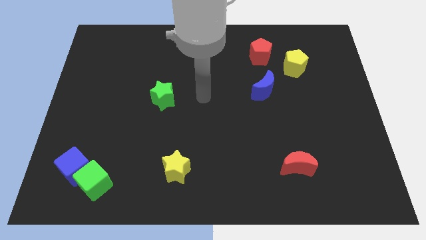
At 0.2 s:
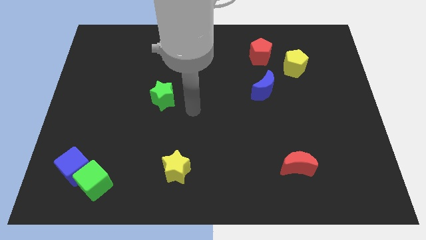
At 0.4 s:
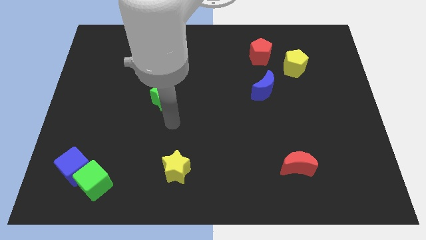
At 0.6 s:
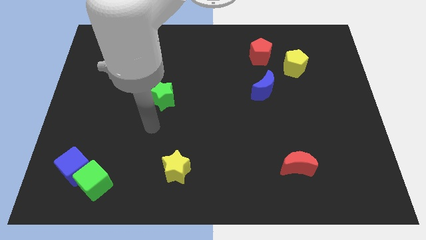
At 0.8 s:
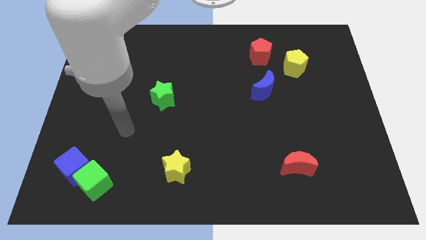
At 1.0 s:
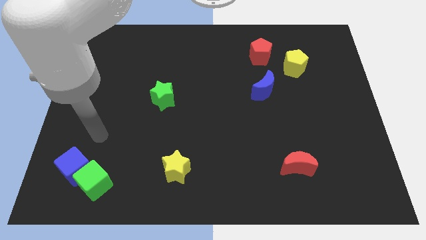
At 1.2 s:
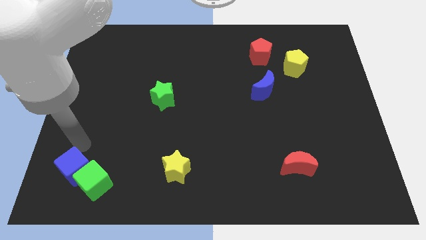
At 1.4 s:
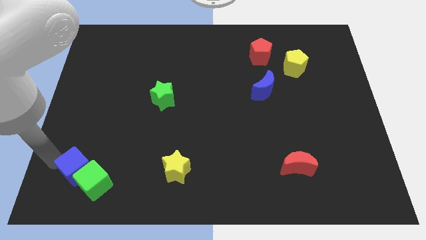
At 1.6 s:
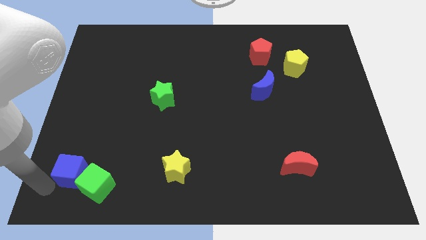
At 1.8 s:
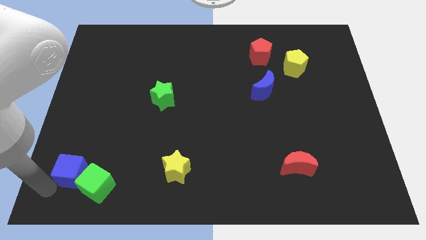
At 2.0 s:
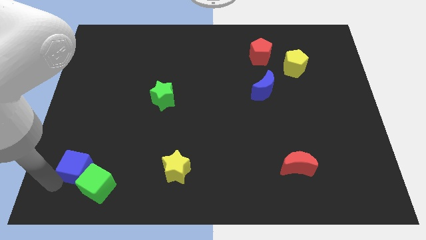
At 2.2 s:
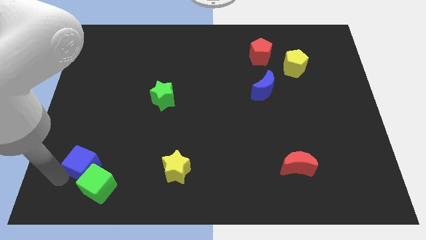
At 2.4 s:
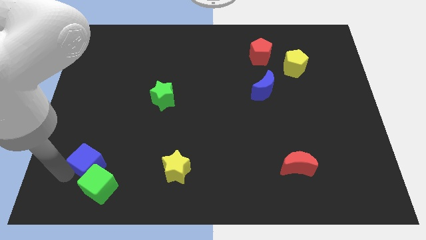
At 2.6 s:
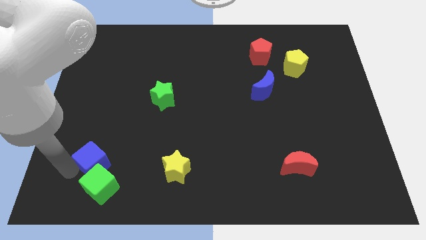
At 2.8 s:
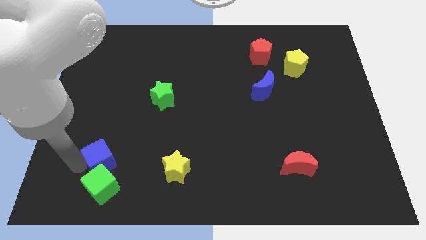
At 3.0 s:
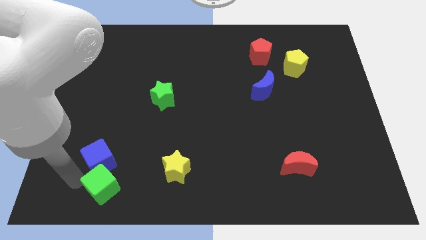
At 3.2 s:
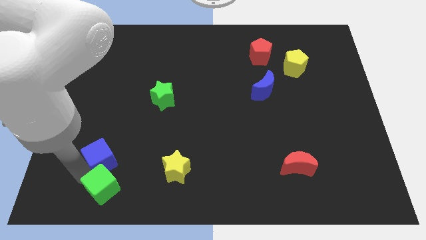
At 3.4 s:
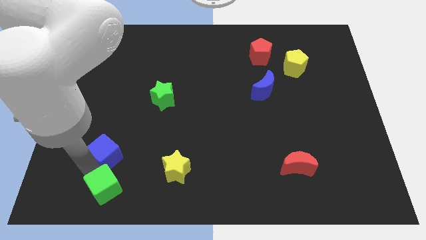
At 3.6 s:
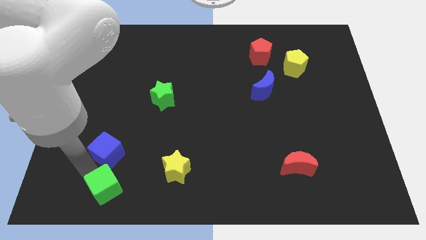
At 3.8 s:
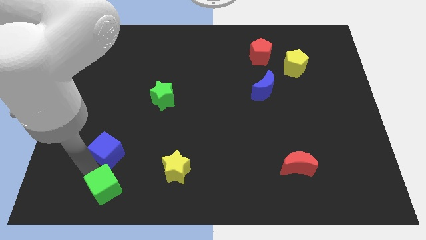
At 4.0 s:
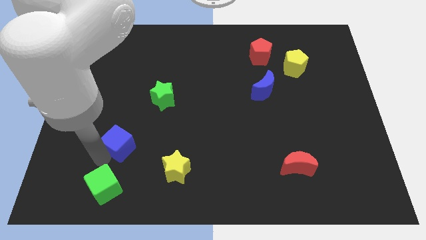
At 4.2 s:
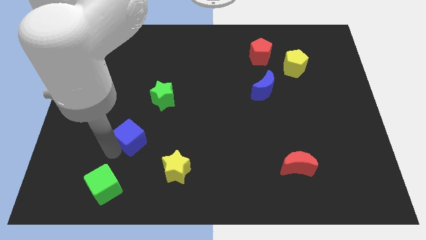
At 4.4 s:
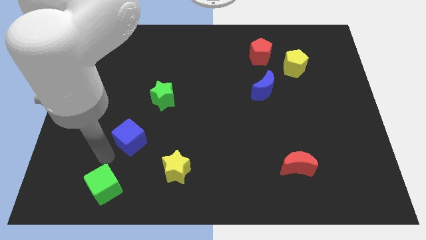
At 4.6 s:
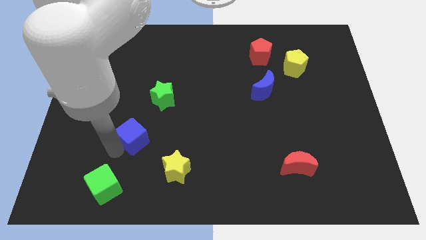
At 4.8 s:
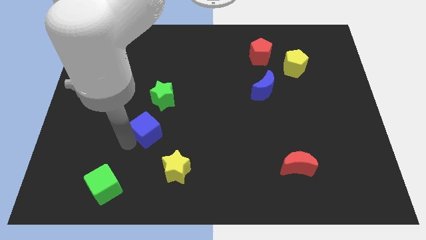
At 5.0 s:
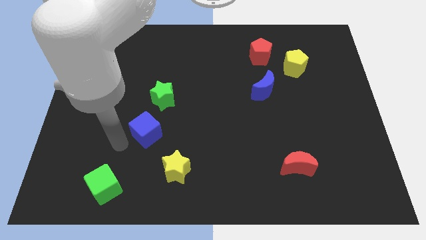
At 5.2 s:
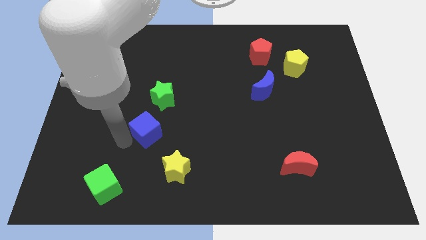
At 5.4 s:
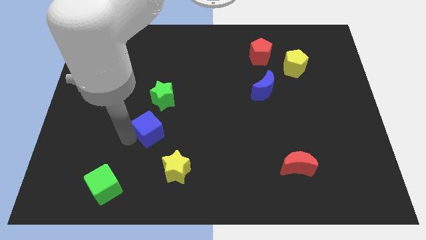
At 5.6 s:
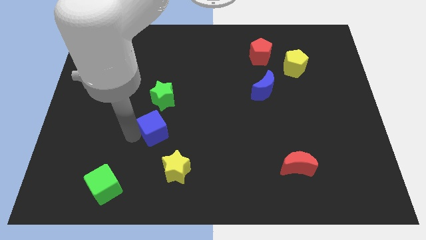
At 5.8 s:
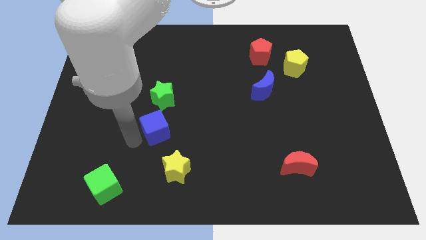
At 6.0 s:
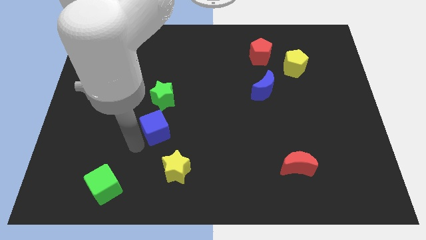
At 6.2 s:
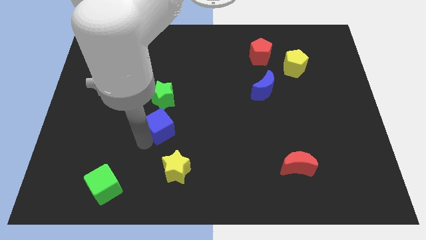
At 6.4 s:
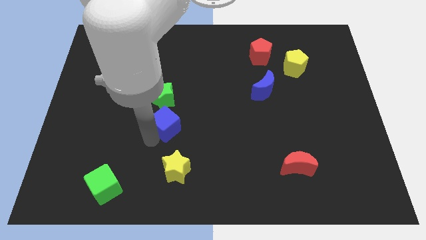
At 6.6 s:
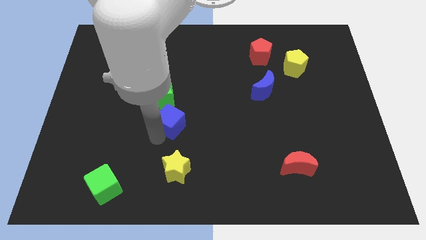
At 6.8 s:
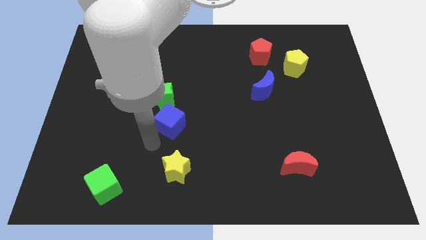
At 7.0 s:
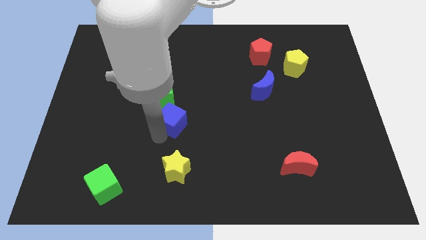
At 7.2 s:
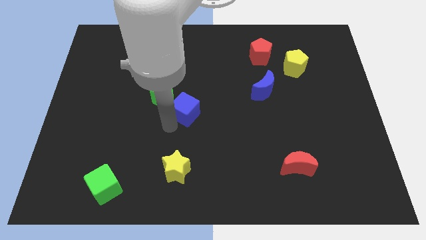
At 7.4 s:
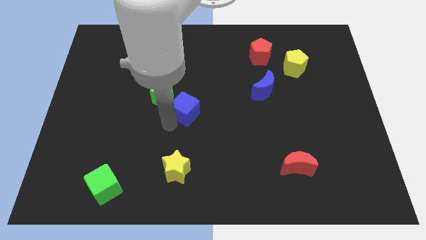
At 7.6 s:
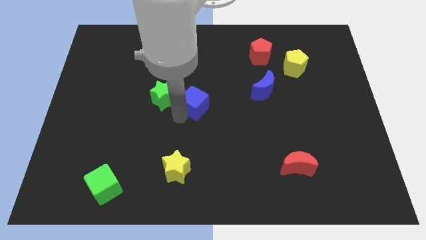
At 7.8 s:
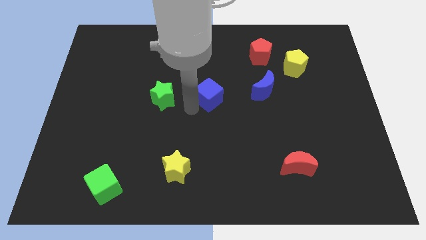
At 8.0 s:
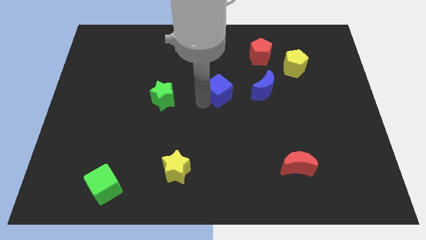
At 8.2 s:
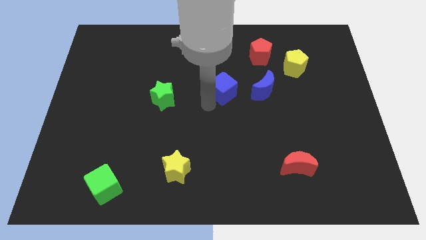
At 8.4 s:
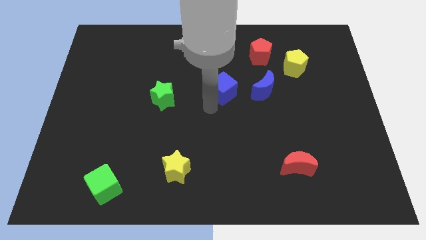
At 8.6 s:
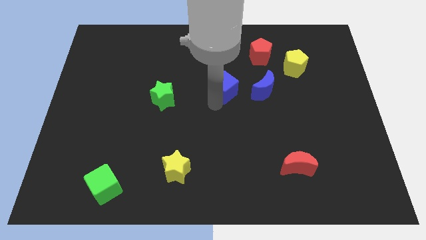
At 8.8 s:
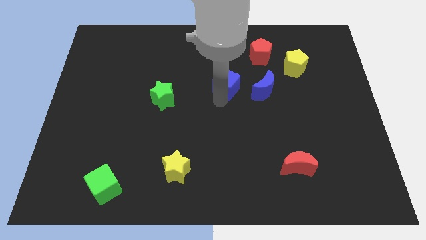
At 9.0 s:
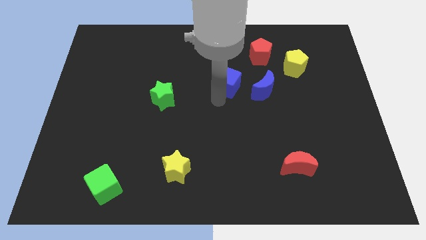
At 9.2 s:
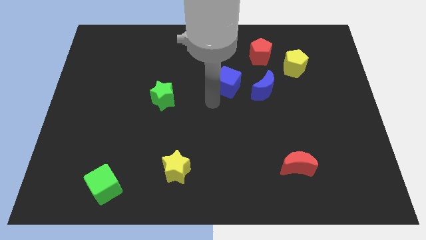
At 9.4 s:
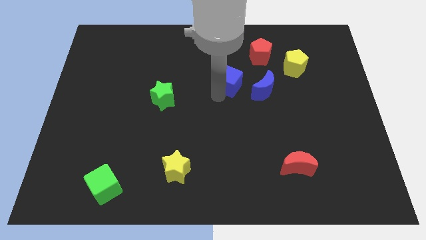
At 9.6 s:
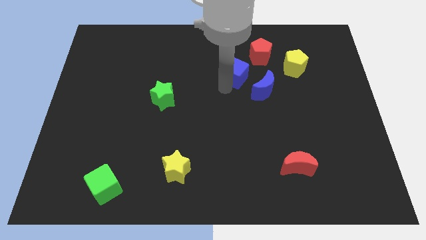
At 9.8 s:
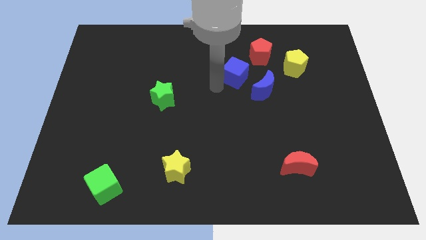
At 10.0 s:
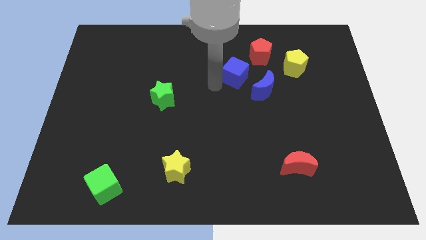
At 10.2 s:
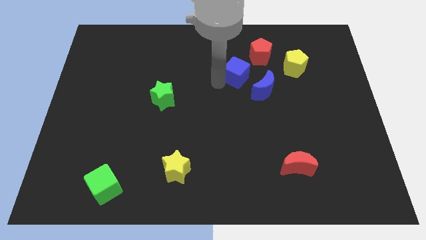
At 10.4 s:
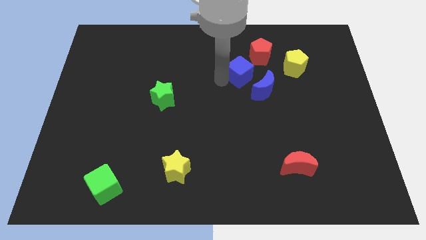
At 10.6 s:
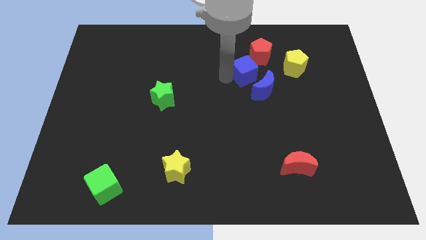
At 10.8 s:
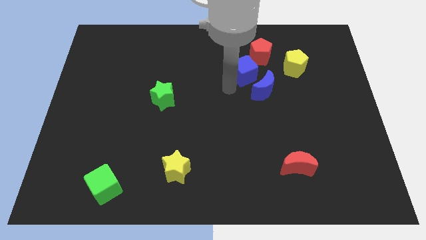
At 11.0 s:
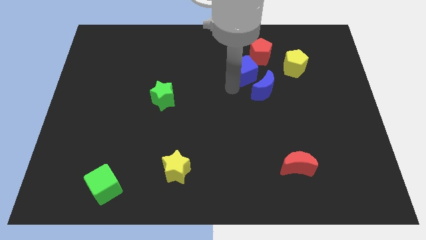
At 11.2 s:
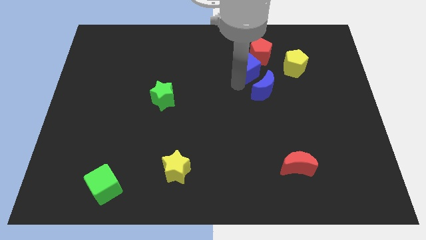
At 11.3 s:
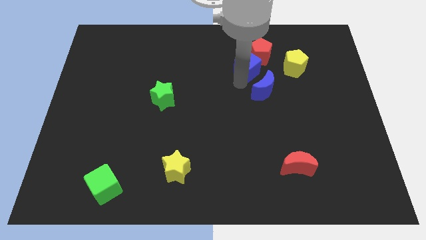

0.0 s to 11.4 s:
put the blue cube to the red pentagon

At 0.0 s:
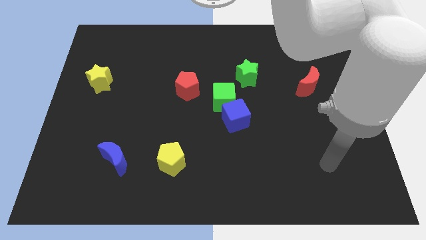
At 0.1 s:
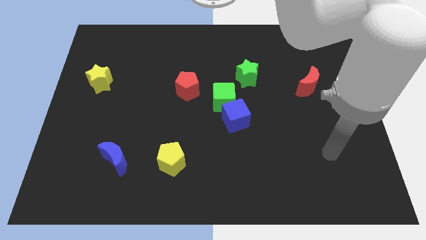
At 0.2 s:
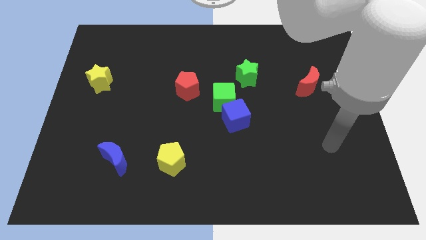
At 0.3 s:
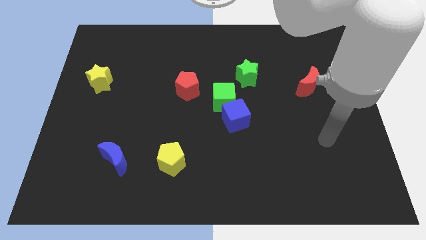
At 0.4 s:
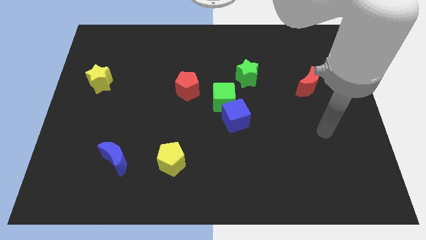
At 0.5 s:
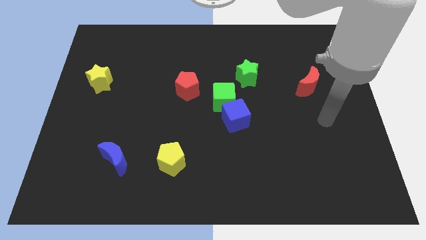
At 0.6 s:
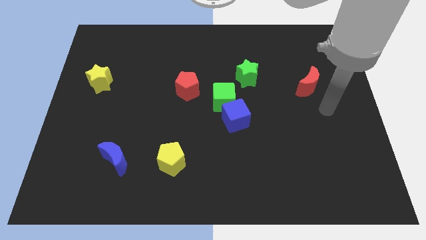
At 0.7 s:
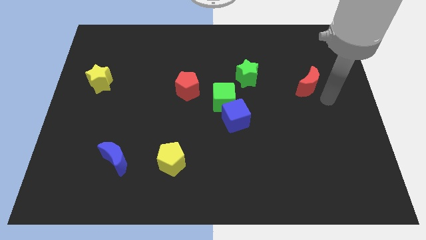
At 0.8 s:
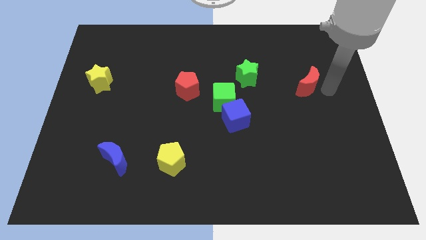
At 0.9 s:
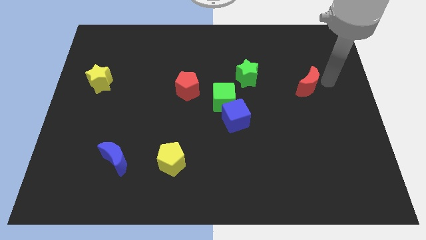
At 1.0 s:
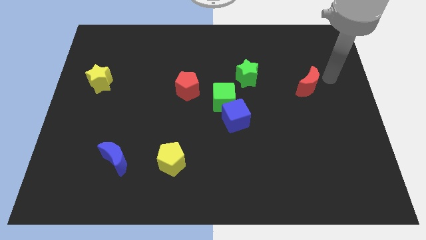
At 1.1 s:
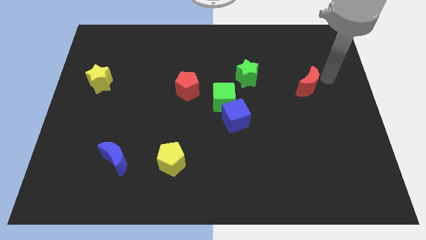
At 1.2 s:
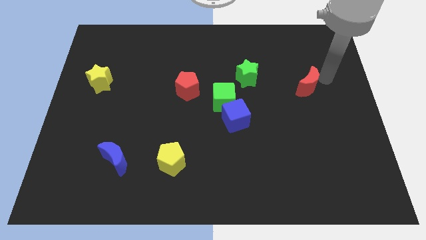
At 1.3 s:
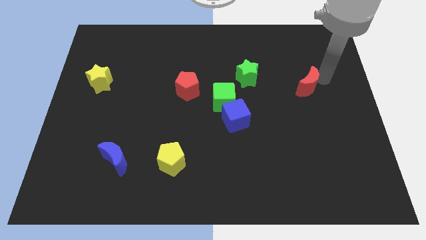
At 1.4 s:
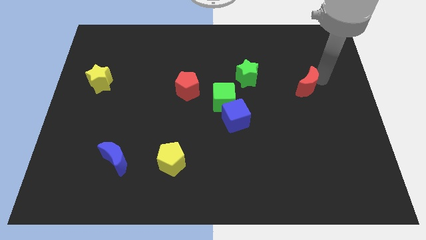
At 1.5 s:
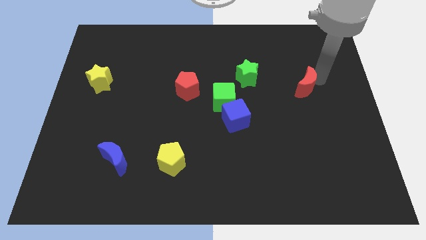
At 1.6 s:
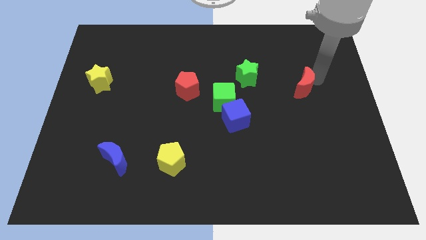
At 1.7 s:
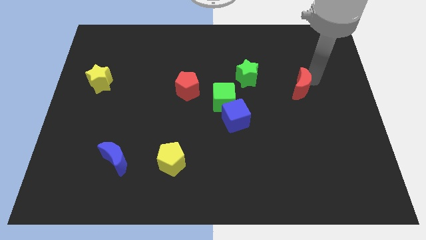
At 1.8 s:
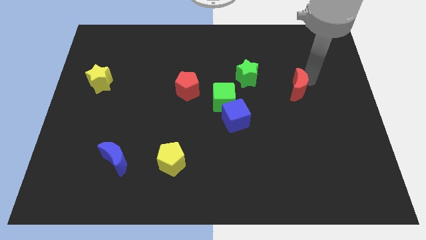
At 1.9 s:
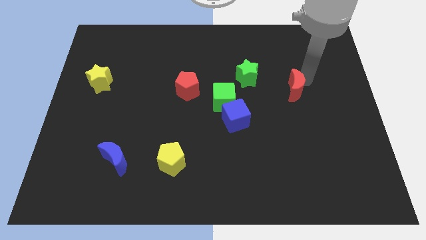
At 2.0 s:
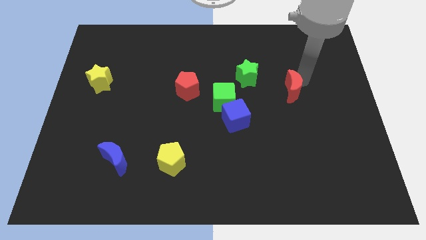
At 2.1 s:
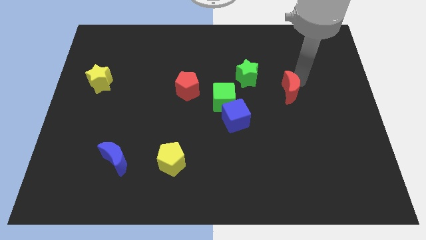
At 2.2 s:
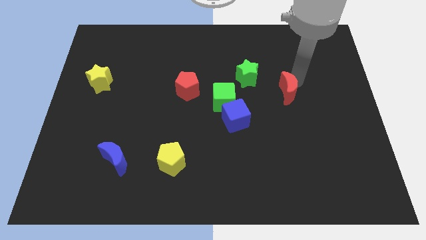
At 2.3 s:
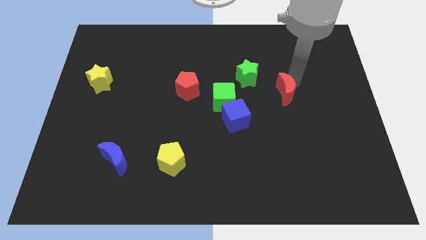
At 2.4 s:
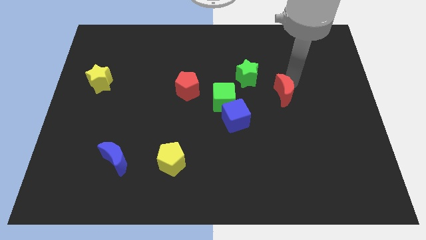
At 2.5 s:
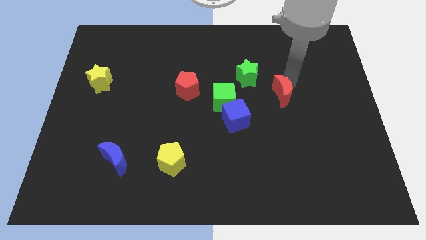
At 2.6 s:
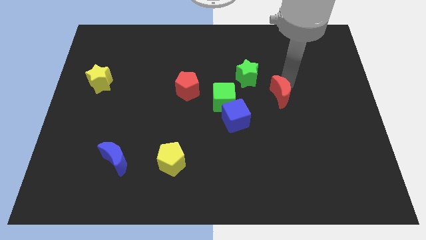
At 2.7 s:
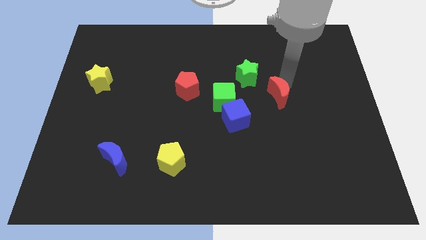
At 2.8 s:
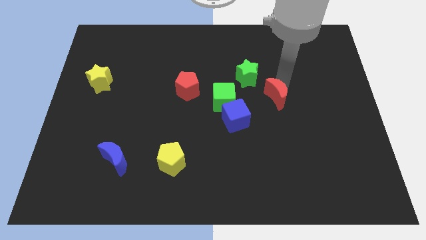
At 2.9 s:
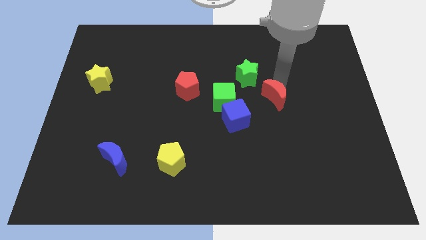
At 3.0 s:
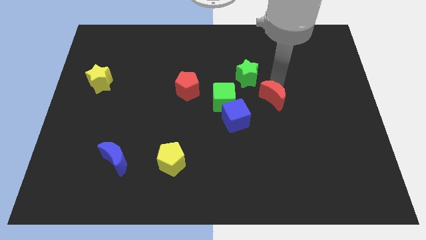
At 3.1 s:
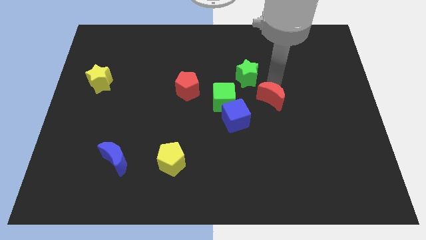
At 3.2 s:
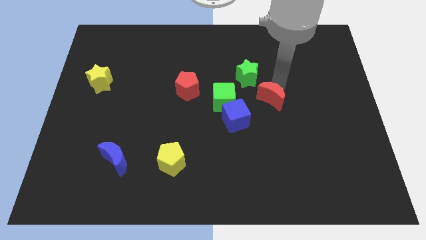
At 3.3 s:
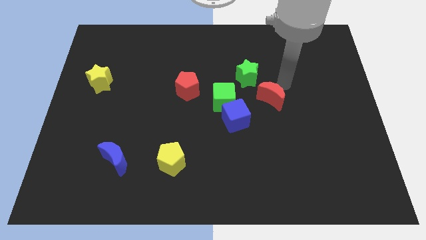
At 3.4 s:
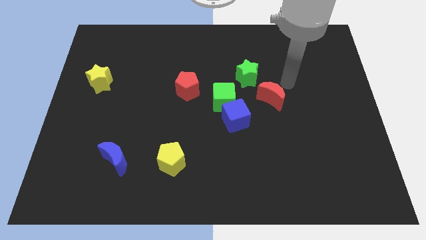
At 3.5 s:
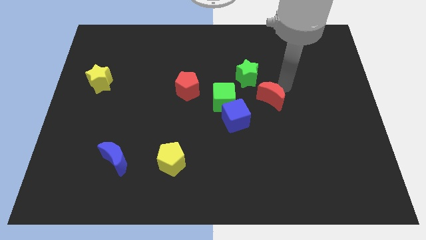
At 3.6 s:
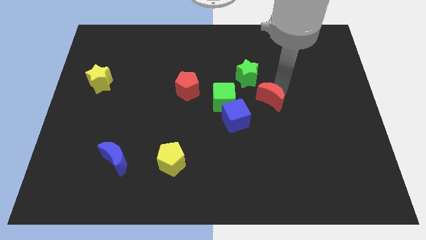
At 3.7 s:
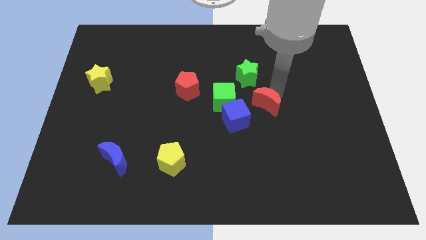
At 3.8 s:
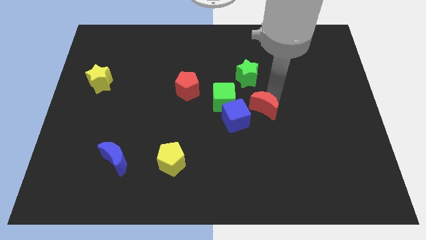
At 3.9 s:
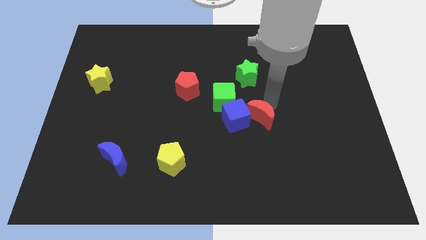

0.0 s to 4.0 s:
slide the red moon towards the blue cube
